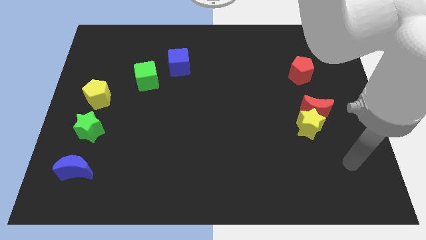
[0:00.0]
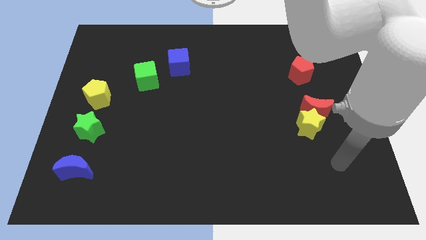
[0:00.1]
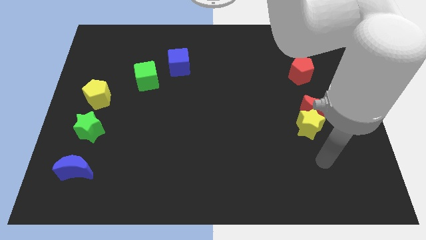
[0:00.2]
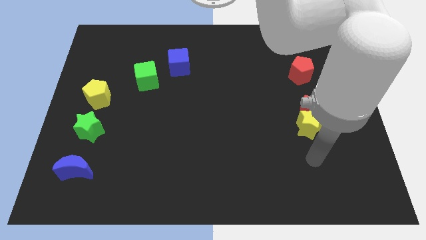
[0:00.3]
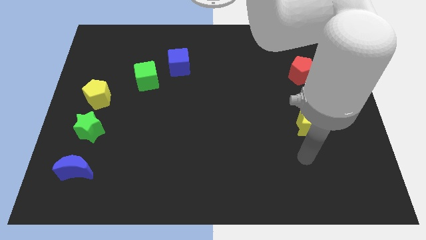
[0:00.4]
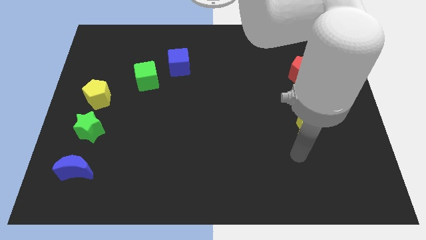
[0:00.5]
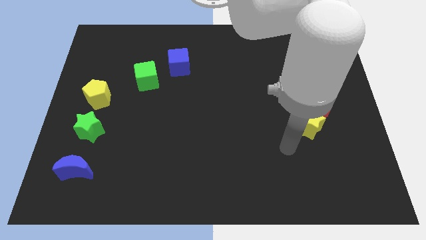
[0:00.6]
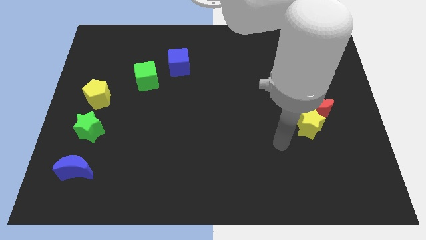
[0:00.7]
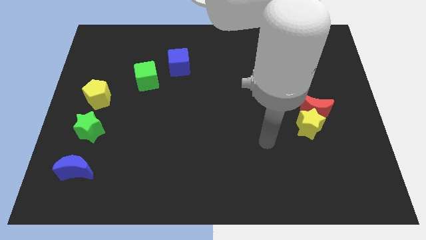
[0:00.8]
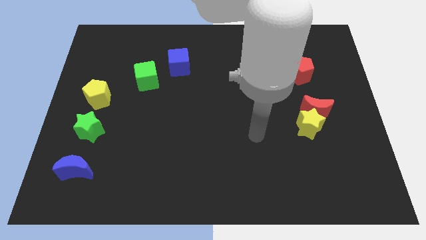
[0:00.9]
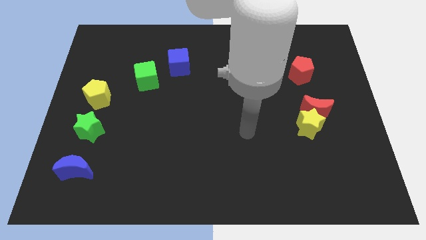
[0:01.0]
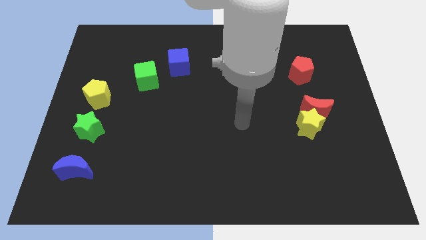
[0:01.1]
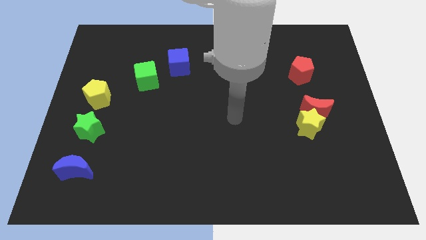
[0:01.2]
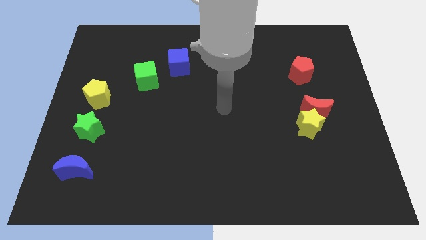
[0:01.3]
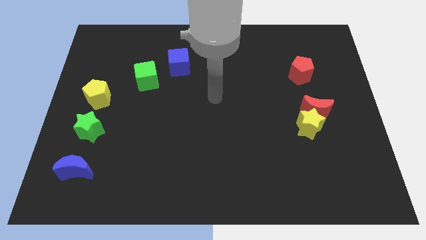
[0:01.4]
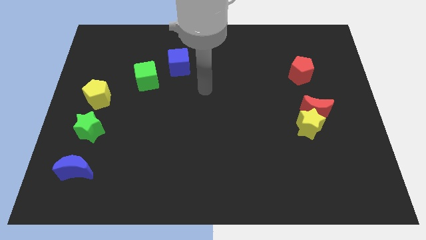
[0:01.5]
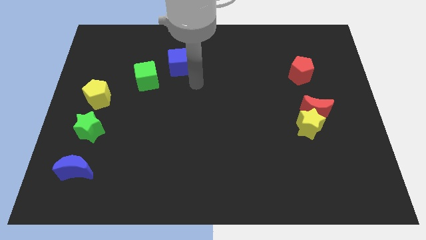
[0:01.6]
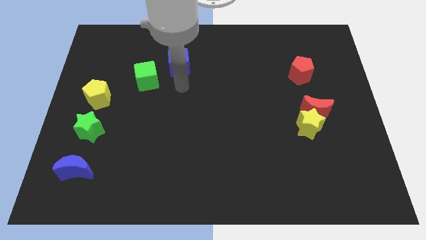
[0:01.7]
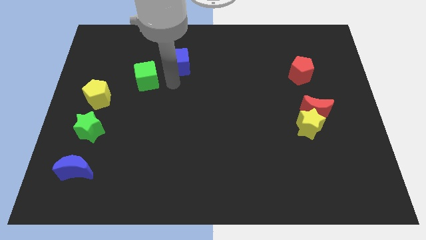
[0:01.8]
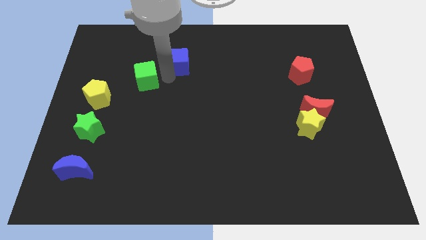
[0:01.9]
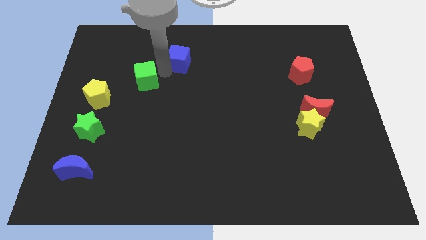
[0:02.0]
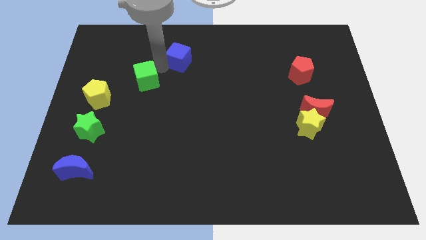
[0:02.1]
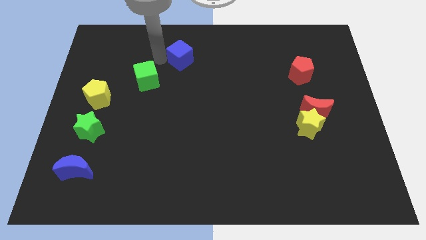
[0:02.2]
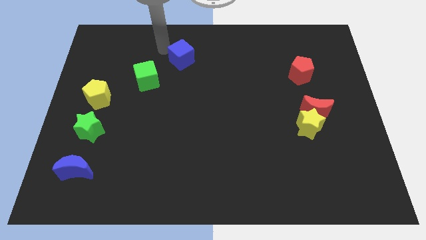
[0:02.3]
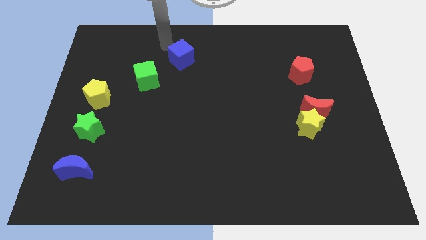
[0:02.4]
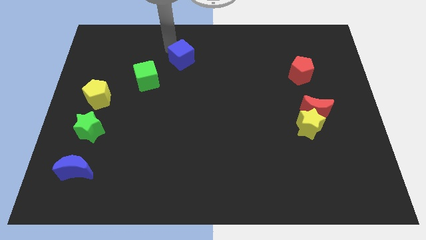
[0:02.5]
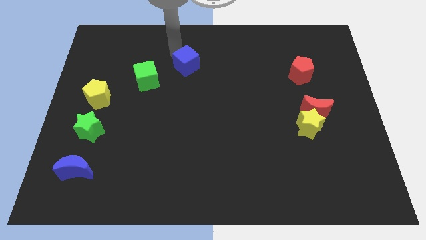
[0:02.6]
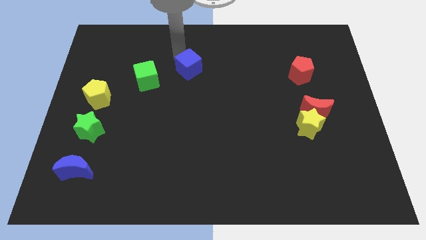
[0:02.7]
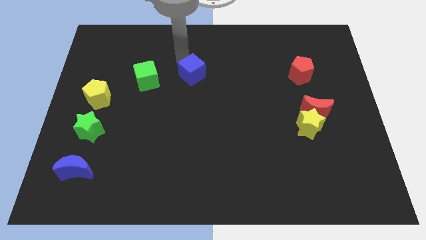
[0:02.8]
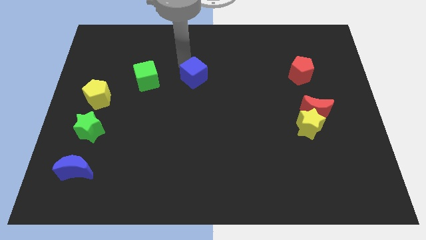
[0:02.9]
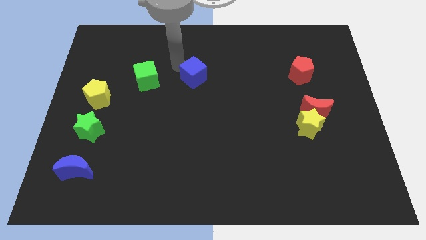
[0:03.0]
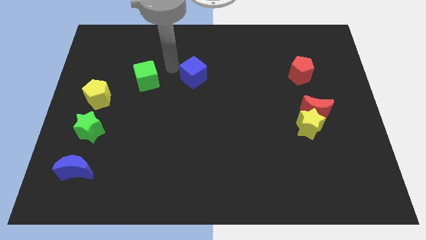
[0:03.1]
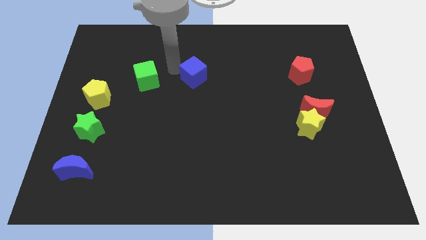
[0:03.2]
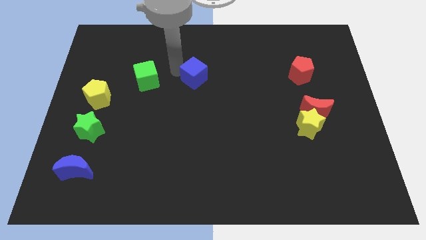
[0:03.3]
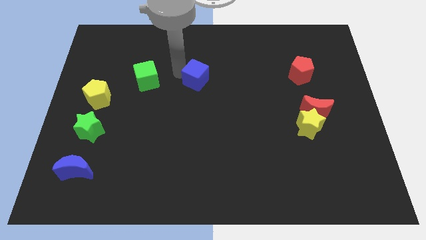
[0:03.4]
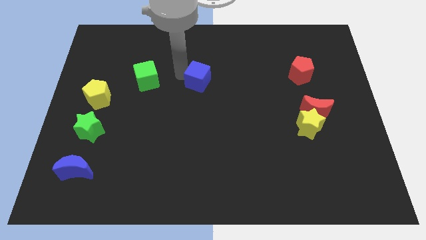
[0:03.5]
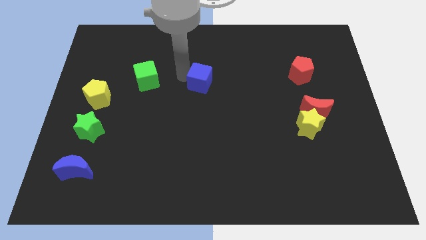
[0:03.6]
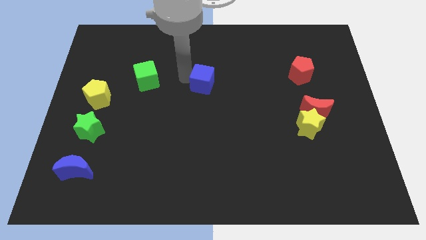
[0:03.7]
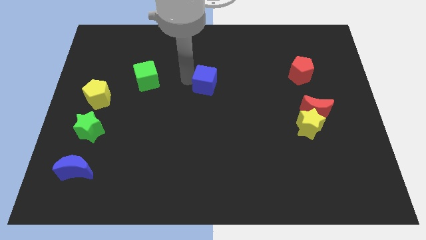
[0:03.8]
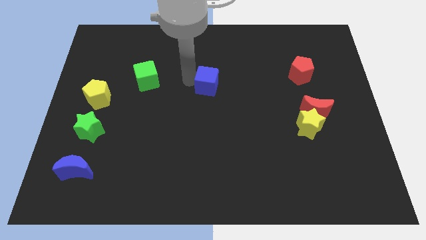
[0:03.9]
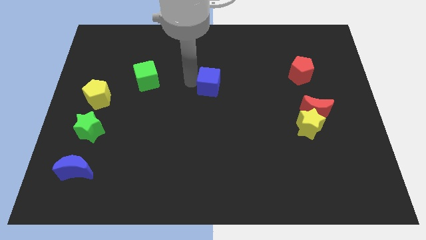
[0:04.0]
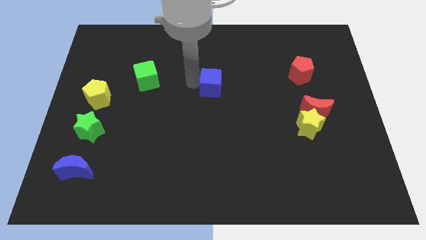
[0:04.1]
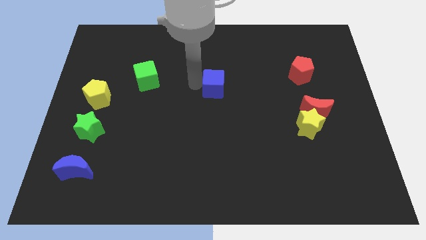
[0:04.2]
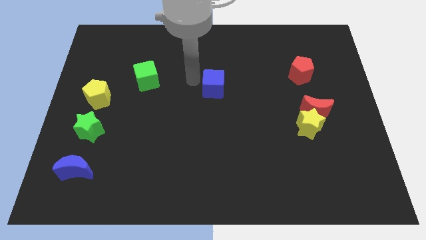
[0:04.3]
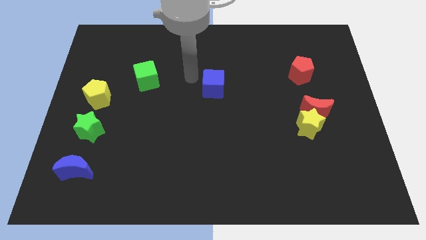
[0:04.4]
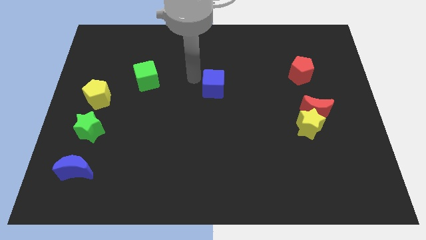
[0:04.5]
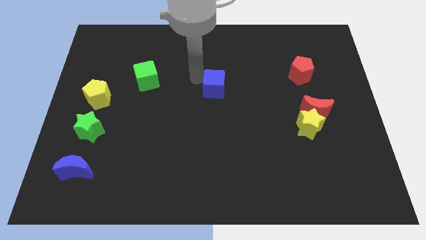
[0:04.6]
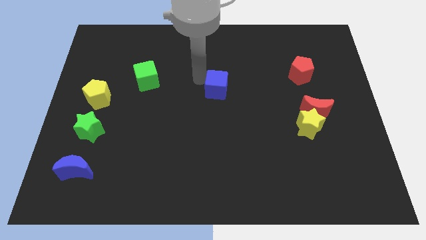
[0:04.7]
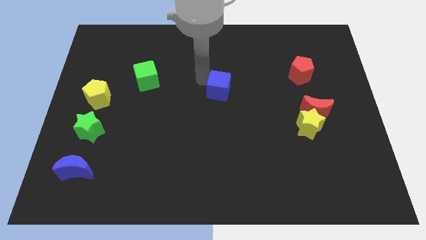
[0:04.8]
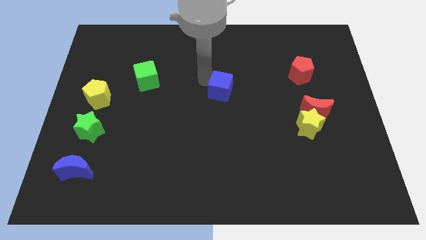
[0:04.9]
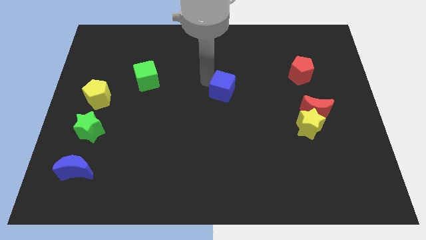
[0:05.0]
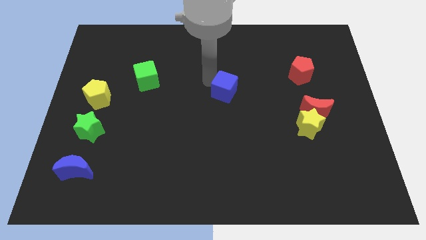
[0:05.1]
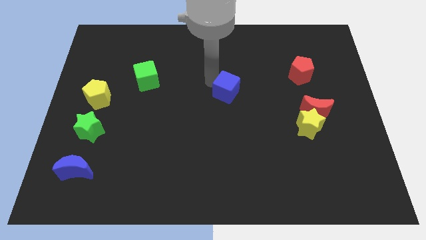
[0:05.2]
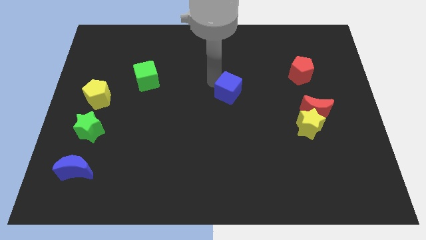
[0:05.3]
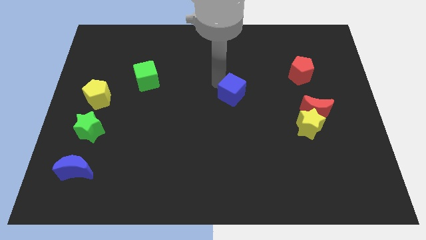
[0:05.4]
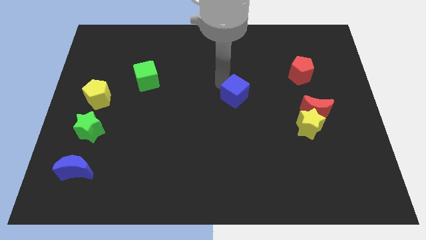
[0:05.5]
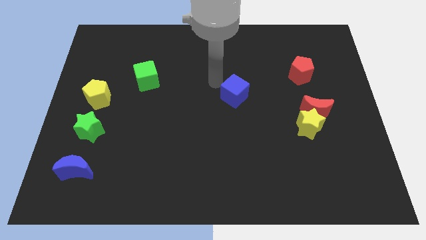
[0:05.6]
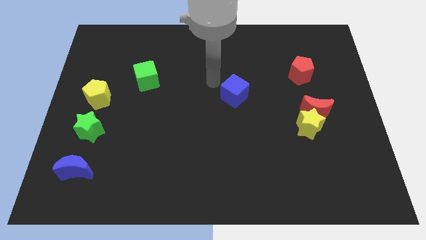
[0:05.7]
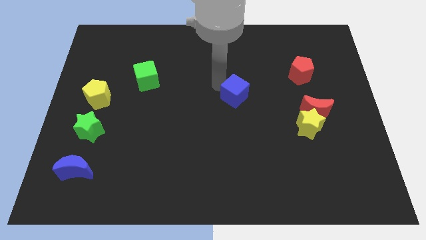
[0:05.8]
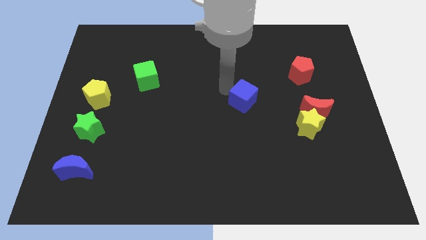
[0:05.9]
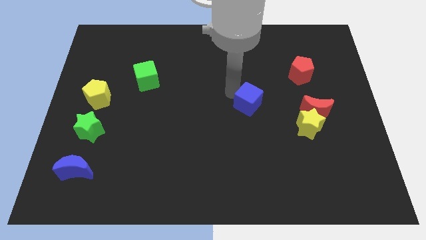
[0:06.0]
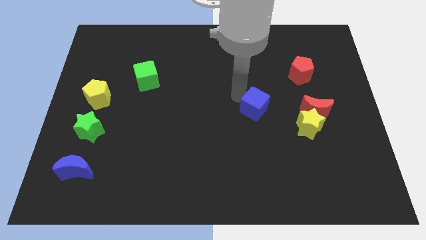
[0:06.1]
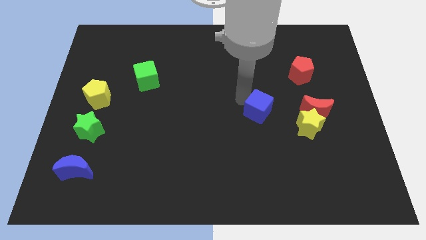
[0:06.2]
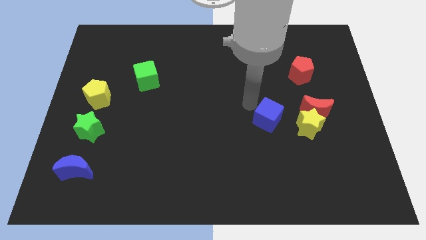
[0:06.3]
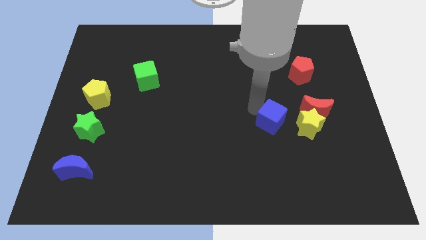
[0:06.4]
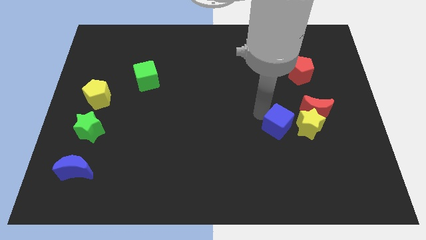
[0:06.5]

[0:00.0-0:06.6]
move the blue cube diagonally down and to the left of the red moon

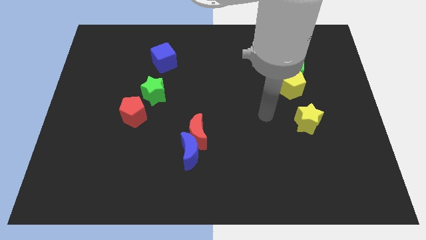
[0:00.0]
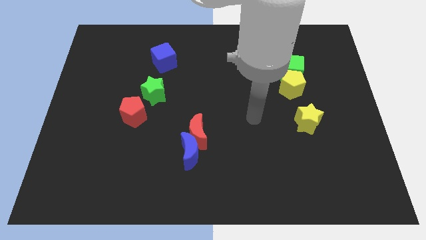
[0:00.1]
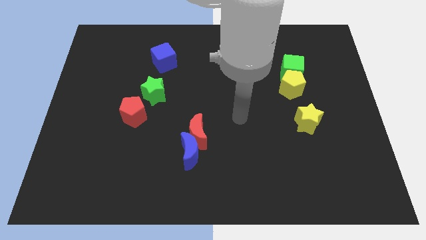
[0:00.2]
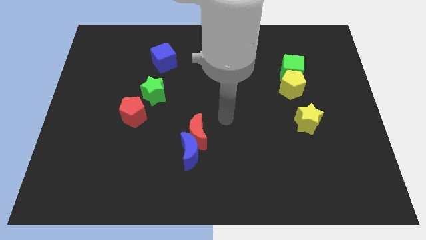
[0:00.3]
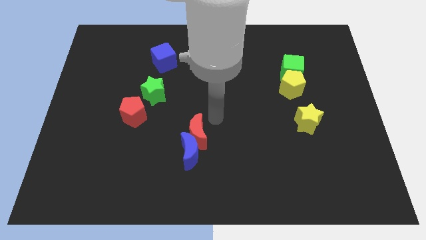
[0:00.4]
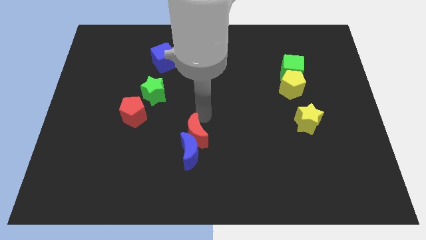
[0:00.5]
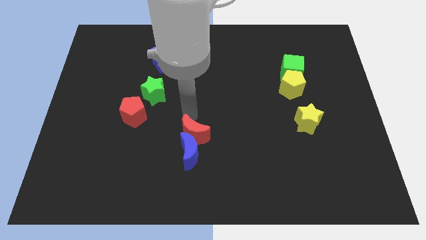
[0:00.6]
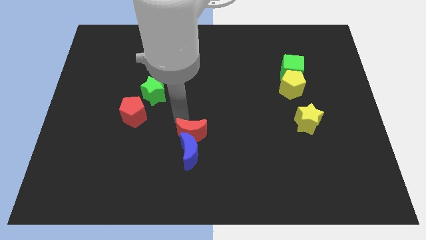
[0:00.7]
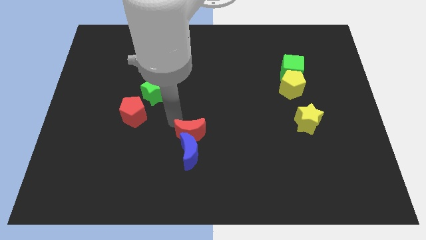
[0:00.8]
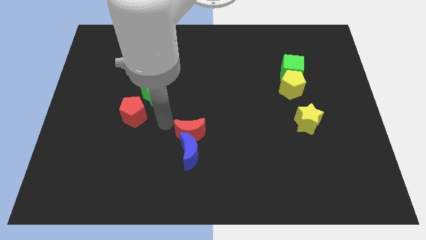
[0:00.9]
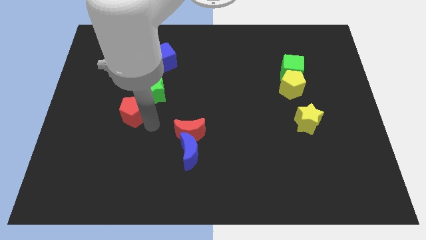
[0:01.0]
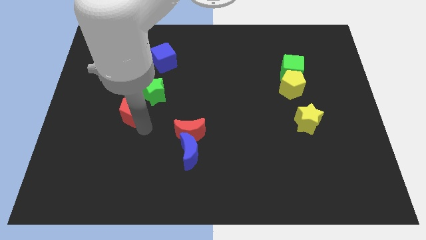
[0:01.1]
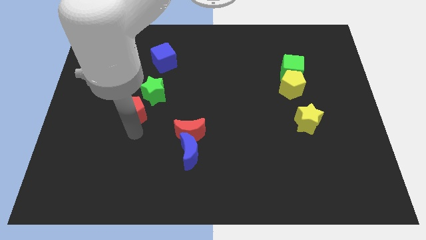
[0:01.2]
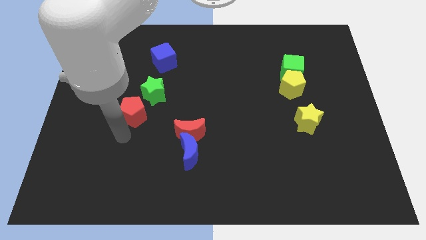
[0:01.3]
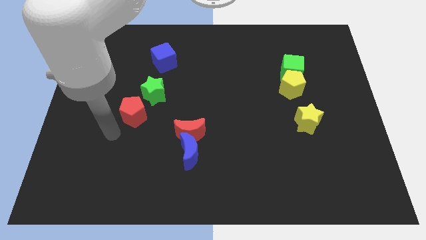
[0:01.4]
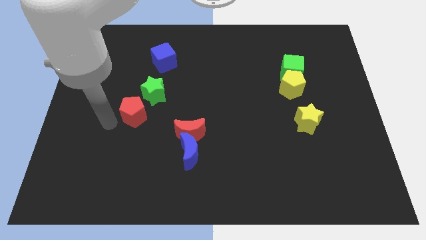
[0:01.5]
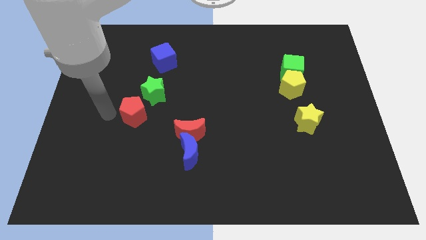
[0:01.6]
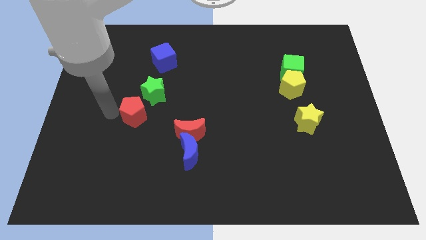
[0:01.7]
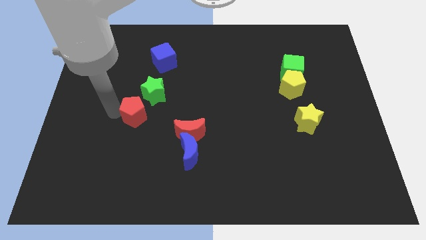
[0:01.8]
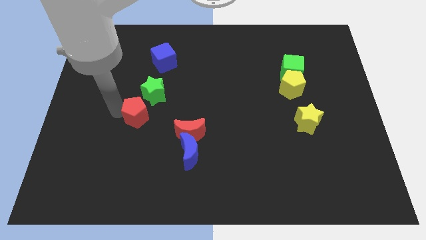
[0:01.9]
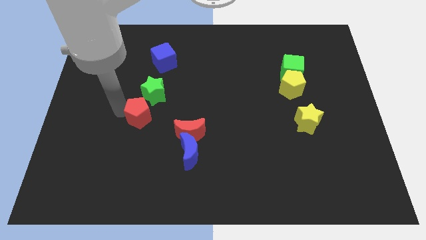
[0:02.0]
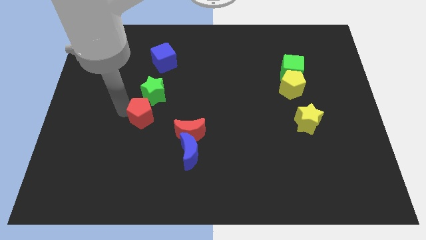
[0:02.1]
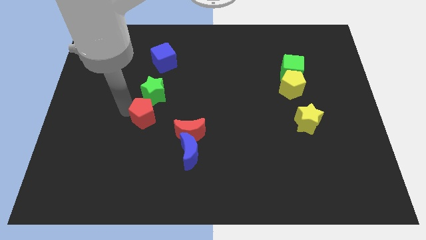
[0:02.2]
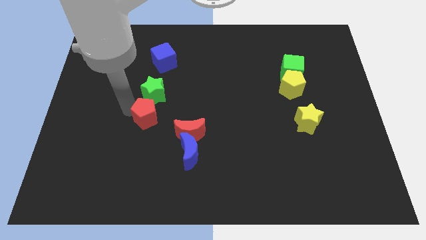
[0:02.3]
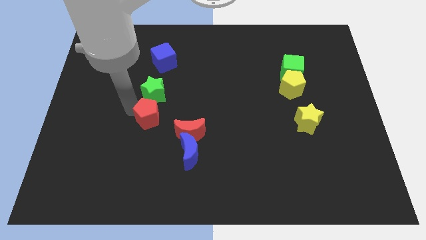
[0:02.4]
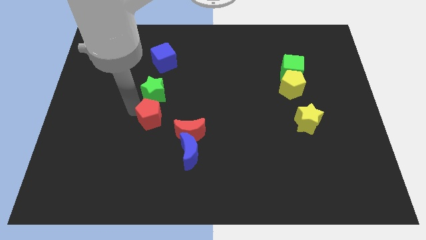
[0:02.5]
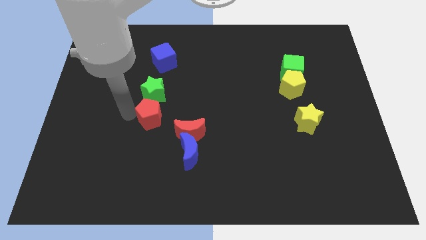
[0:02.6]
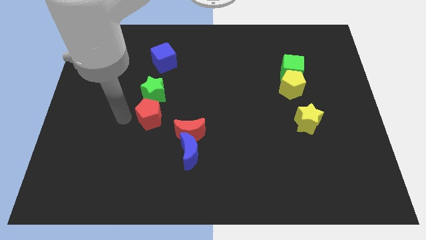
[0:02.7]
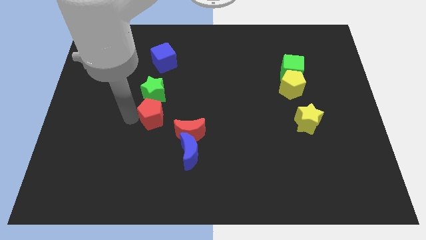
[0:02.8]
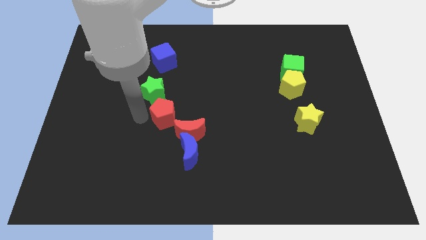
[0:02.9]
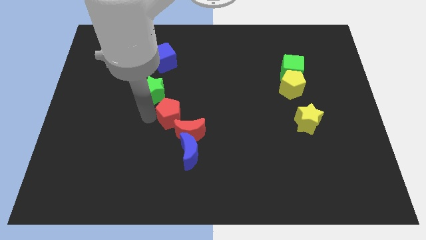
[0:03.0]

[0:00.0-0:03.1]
move the red pentagon to the top of the blue moon
